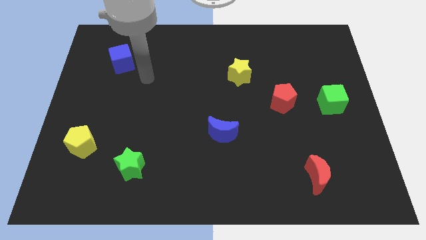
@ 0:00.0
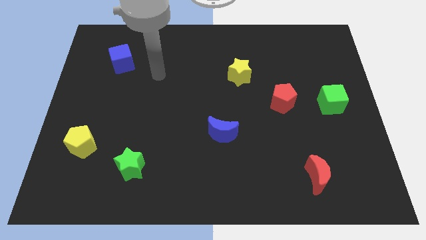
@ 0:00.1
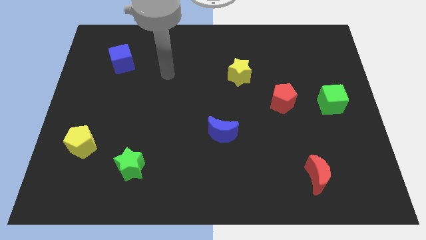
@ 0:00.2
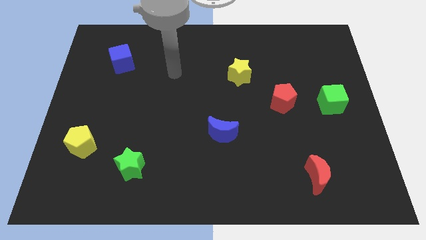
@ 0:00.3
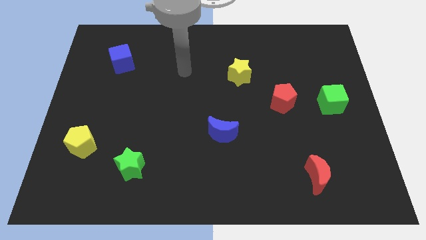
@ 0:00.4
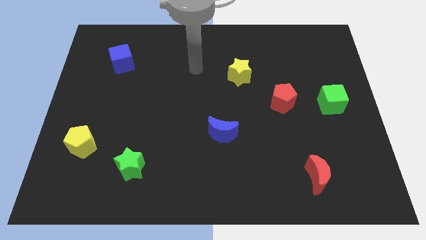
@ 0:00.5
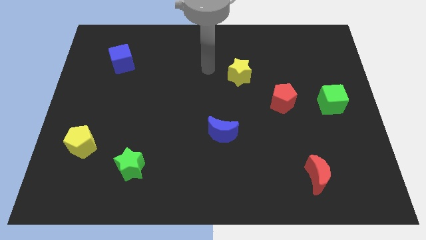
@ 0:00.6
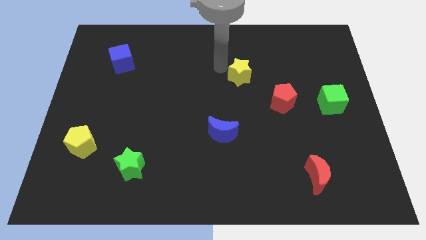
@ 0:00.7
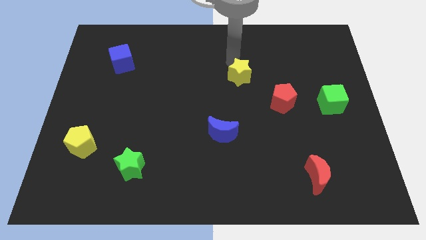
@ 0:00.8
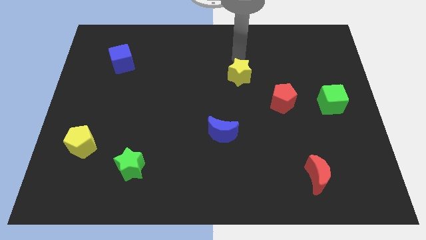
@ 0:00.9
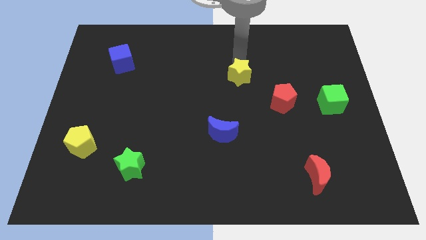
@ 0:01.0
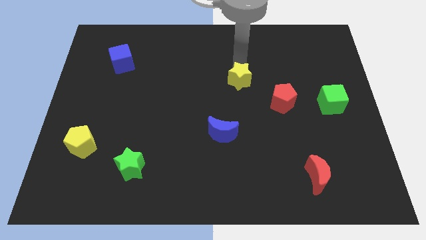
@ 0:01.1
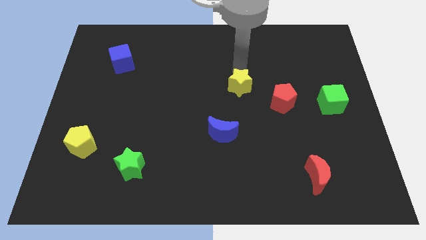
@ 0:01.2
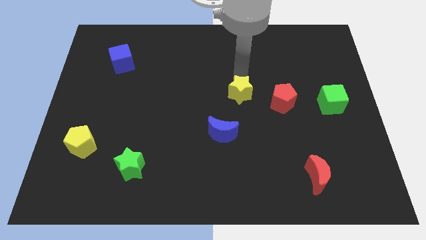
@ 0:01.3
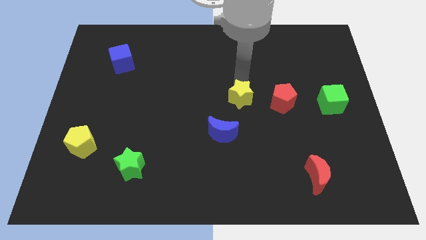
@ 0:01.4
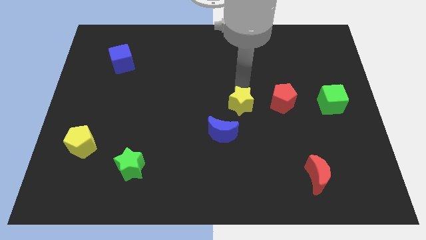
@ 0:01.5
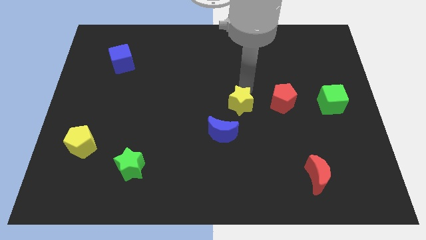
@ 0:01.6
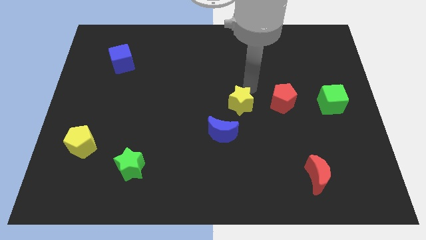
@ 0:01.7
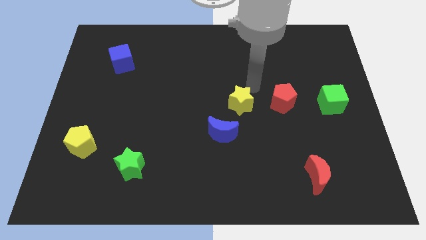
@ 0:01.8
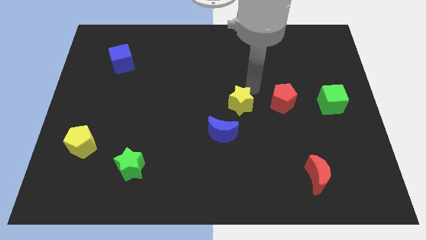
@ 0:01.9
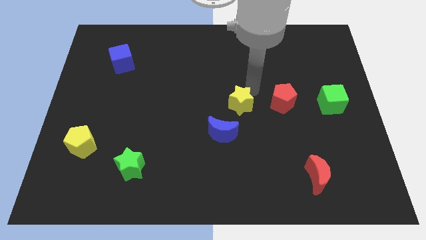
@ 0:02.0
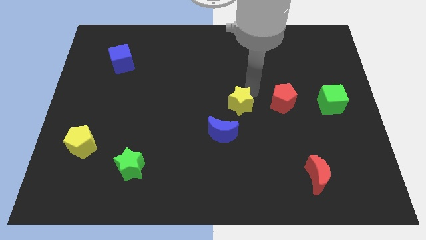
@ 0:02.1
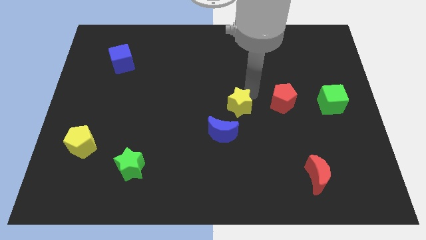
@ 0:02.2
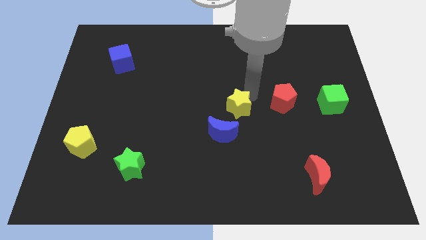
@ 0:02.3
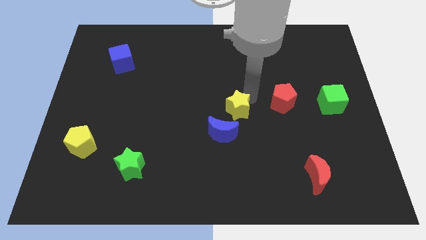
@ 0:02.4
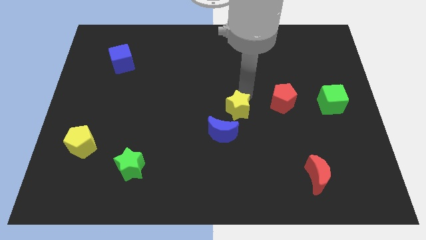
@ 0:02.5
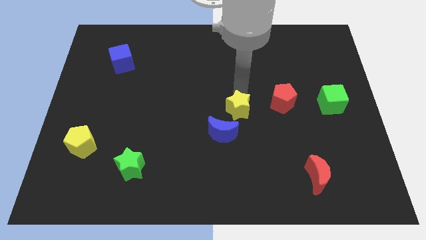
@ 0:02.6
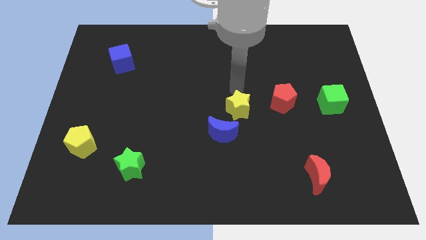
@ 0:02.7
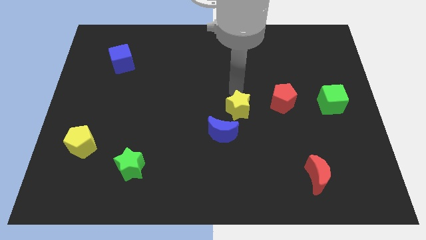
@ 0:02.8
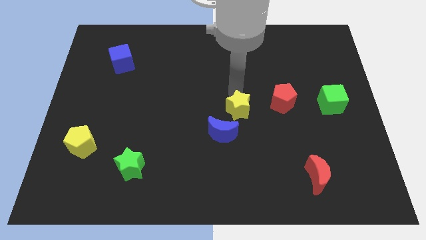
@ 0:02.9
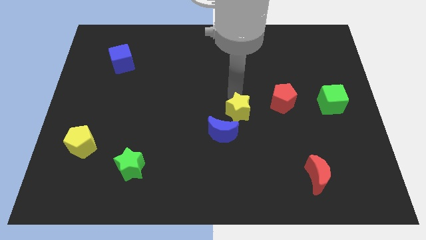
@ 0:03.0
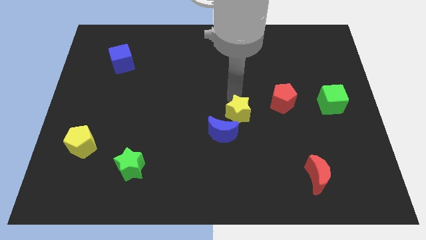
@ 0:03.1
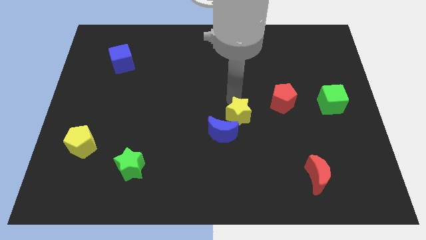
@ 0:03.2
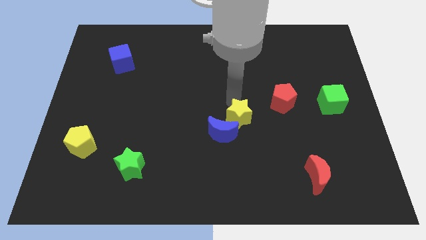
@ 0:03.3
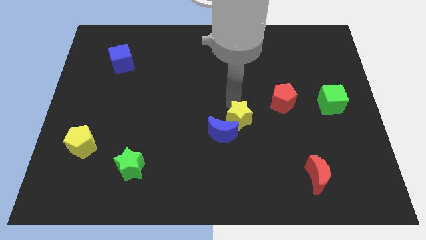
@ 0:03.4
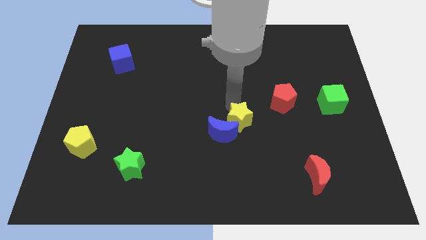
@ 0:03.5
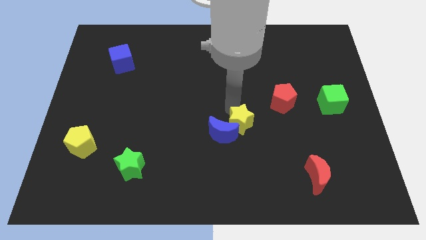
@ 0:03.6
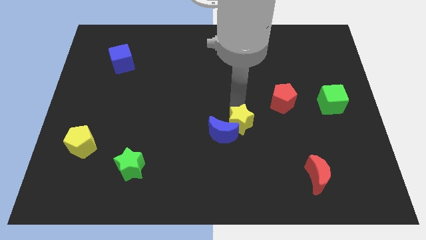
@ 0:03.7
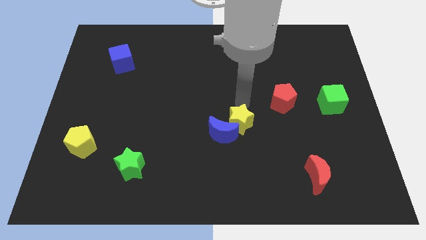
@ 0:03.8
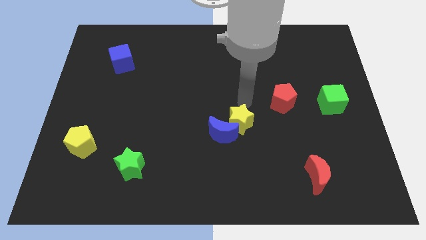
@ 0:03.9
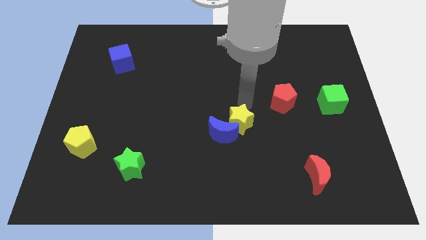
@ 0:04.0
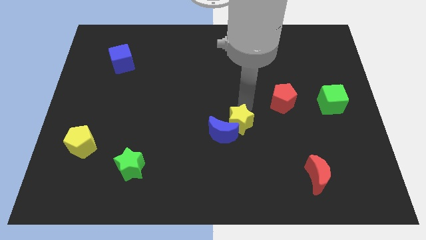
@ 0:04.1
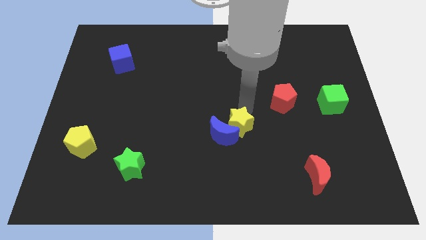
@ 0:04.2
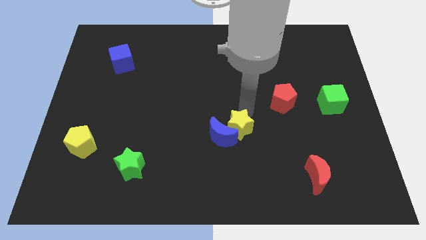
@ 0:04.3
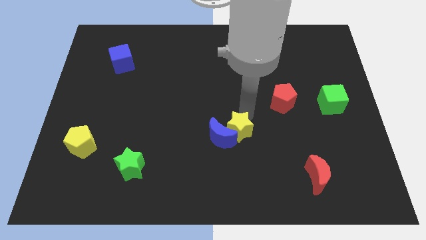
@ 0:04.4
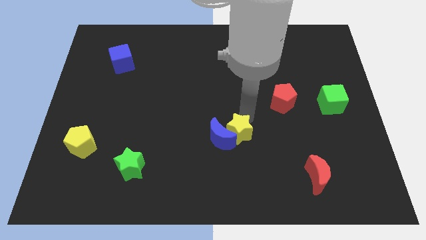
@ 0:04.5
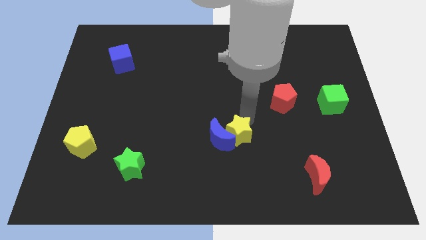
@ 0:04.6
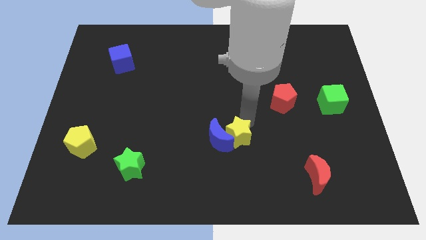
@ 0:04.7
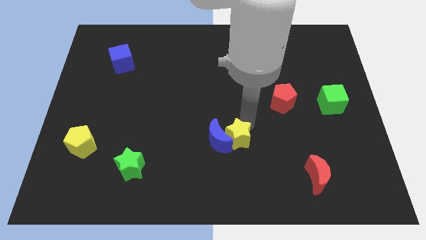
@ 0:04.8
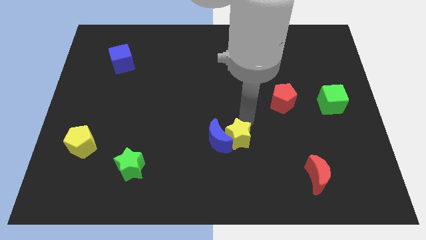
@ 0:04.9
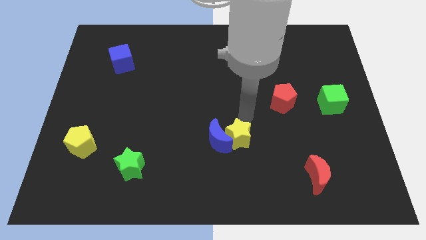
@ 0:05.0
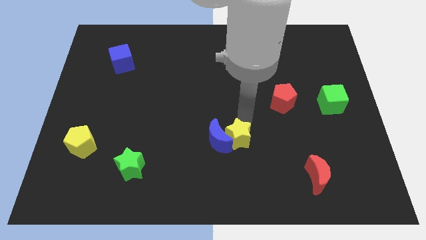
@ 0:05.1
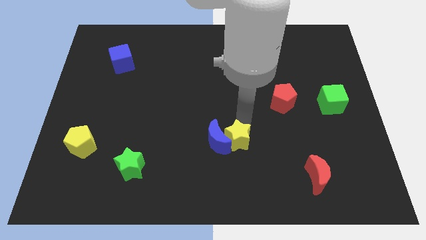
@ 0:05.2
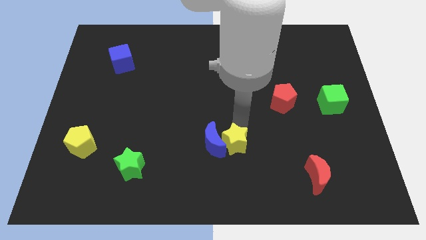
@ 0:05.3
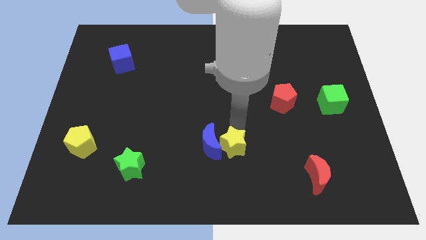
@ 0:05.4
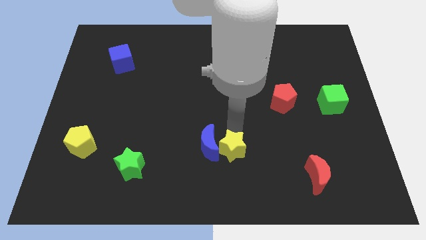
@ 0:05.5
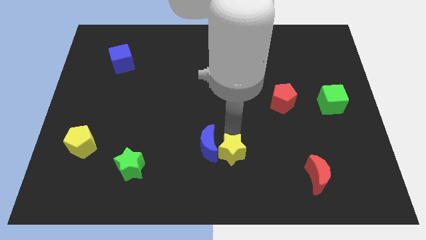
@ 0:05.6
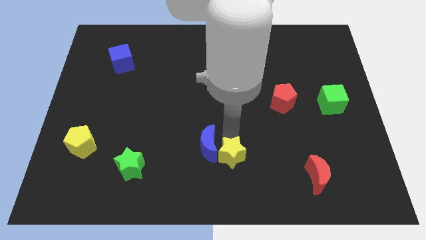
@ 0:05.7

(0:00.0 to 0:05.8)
push the yellow star to the bottom side

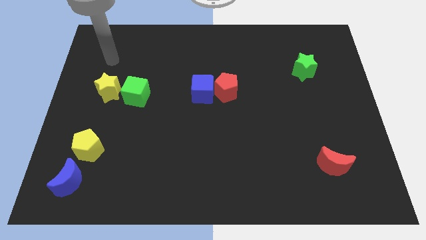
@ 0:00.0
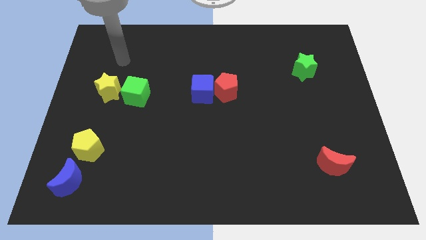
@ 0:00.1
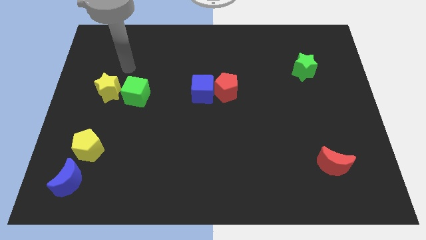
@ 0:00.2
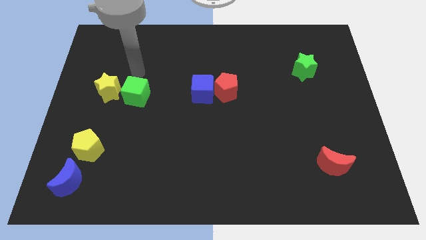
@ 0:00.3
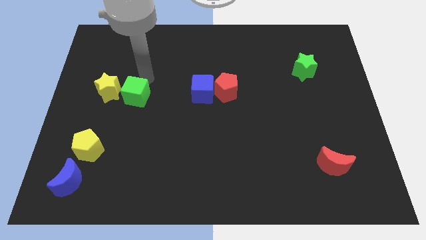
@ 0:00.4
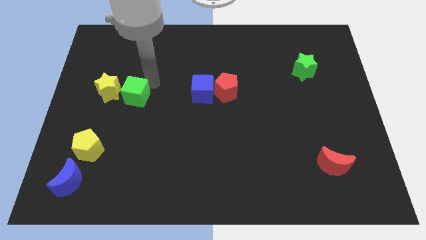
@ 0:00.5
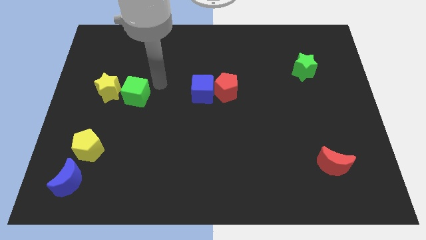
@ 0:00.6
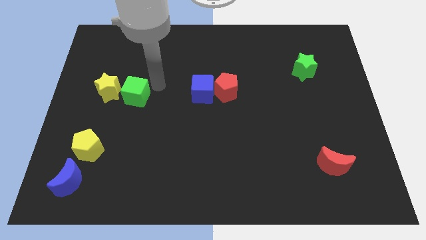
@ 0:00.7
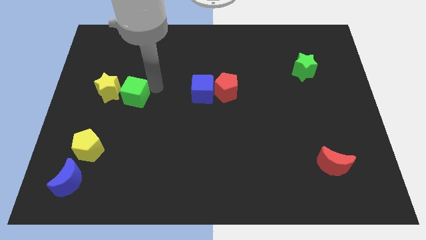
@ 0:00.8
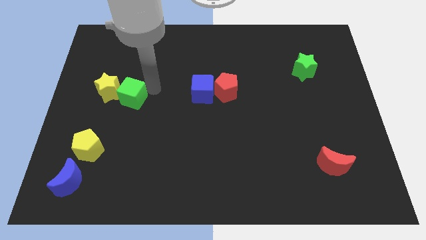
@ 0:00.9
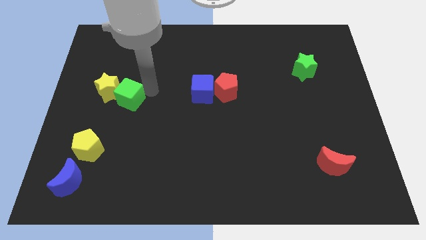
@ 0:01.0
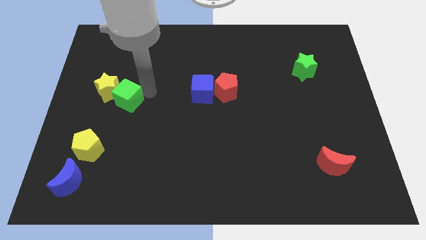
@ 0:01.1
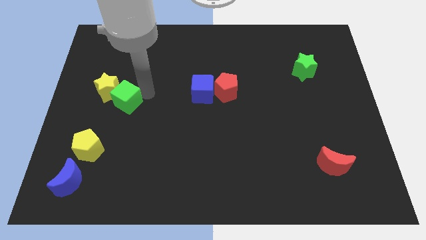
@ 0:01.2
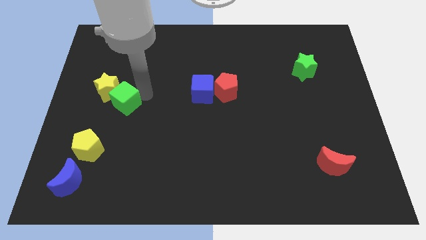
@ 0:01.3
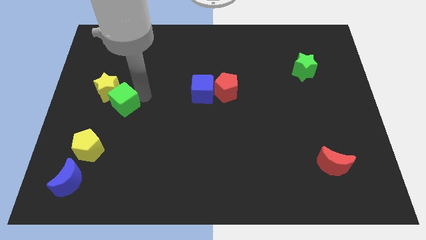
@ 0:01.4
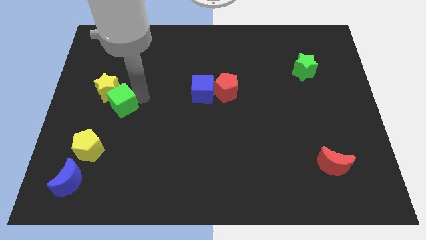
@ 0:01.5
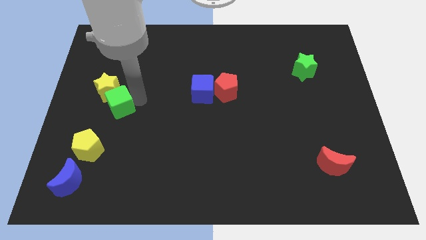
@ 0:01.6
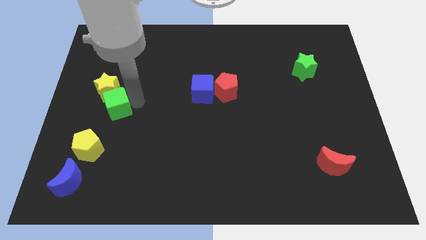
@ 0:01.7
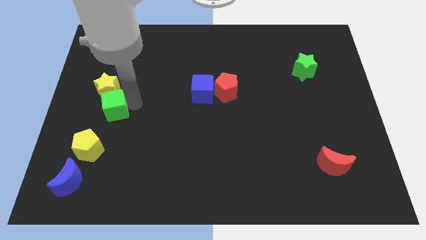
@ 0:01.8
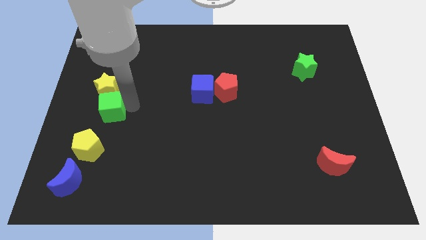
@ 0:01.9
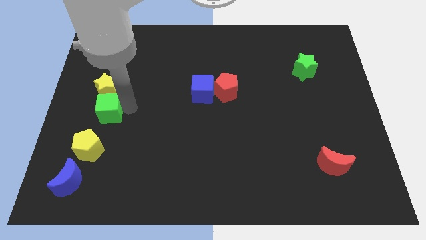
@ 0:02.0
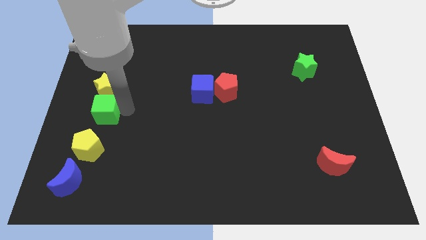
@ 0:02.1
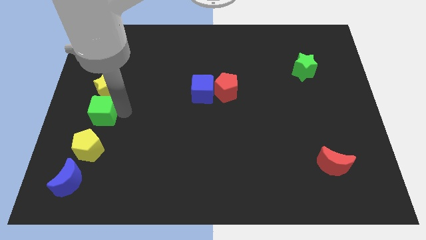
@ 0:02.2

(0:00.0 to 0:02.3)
put the green cube to the left side of the board
